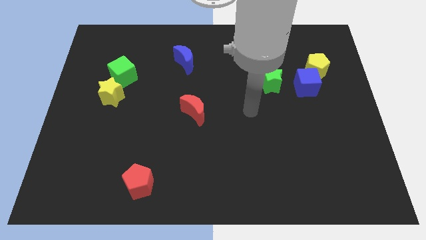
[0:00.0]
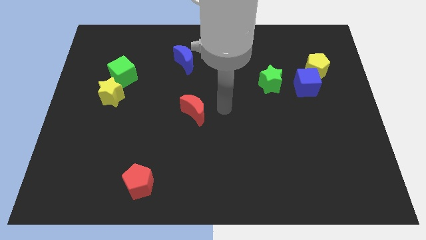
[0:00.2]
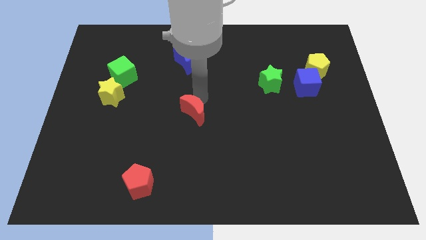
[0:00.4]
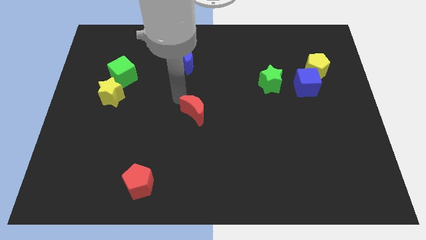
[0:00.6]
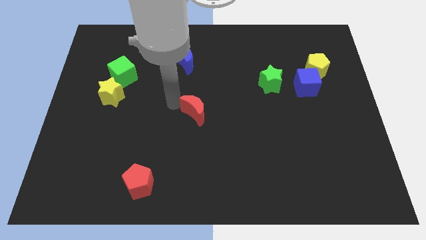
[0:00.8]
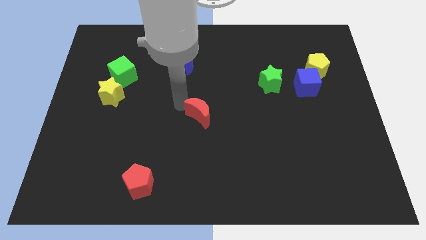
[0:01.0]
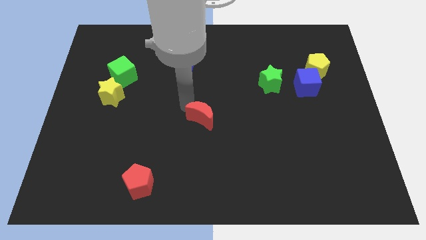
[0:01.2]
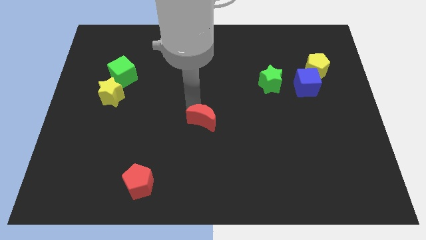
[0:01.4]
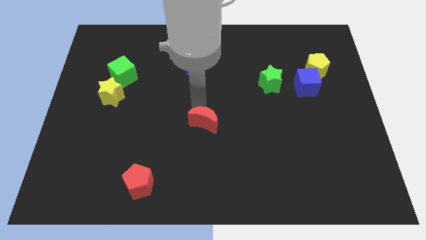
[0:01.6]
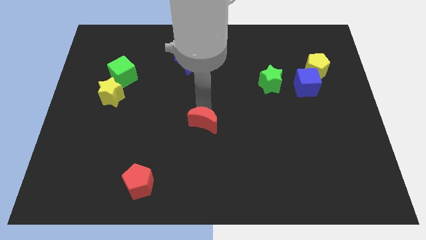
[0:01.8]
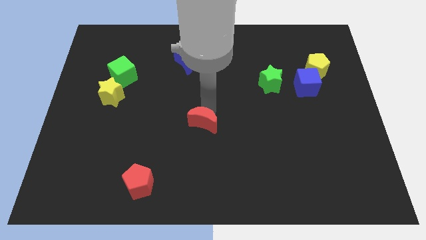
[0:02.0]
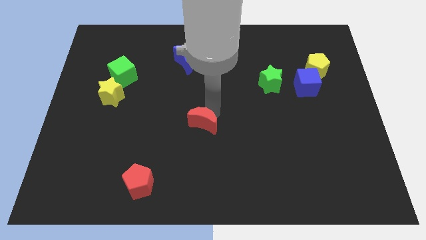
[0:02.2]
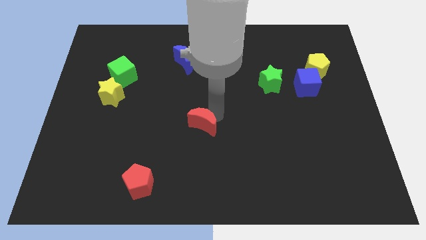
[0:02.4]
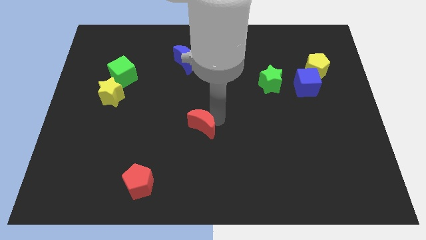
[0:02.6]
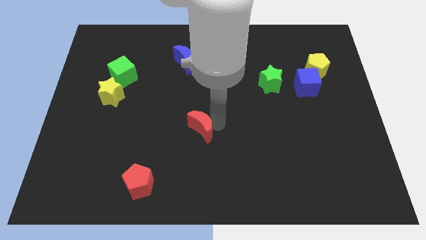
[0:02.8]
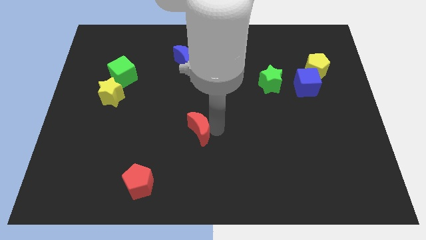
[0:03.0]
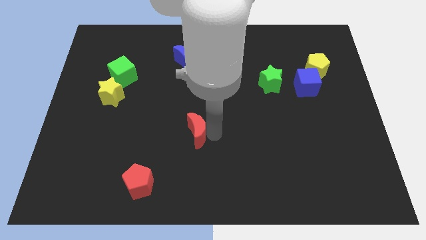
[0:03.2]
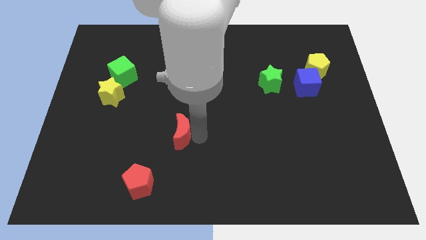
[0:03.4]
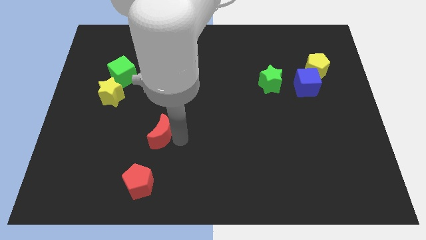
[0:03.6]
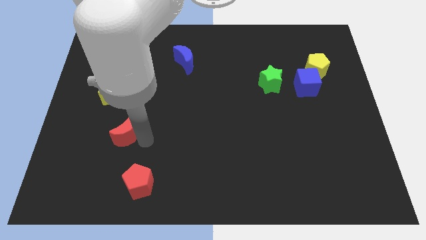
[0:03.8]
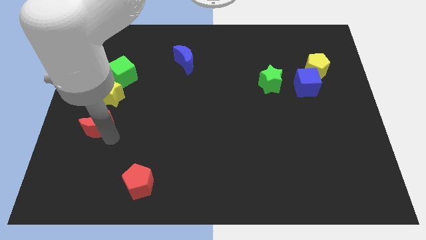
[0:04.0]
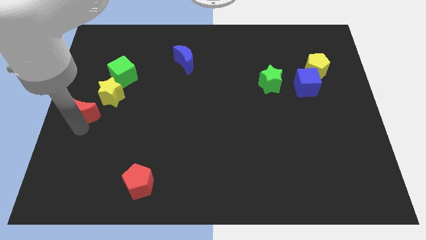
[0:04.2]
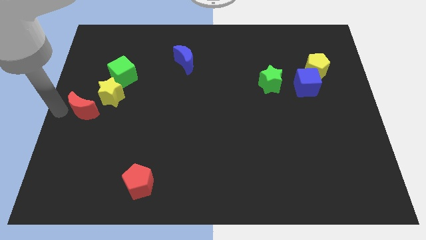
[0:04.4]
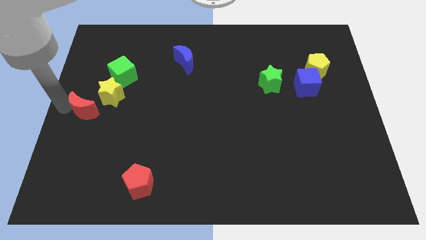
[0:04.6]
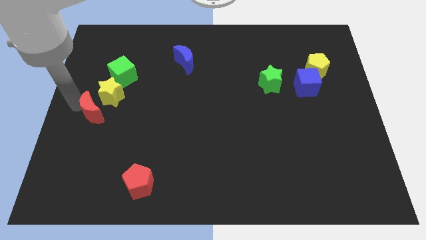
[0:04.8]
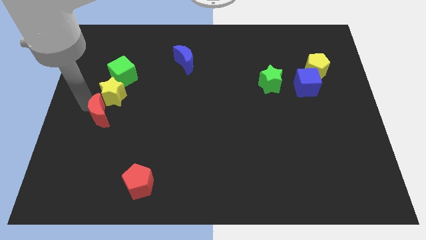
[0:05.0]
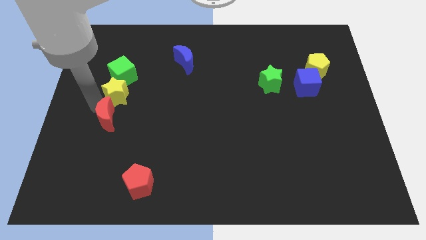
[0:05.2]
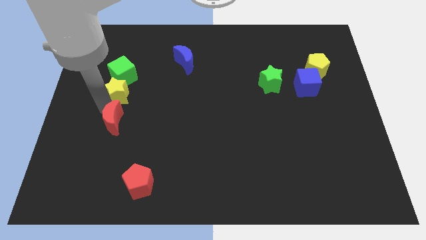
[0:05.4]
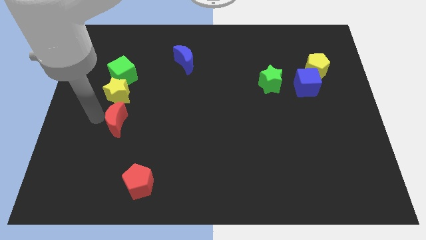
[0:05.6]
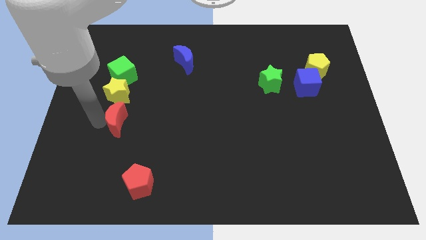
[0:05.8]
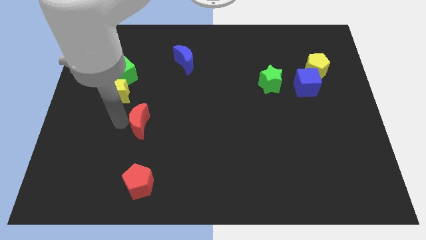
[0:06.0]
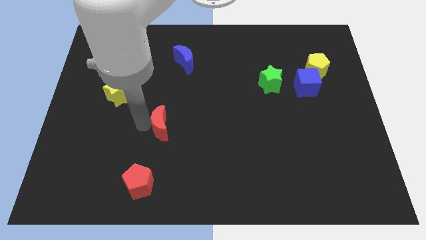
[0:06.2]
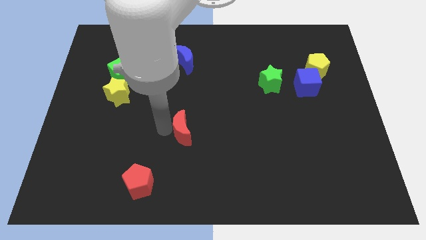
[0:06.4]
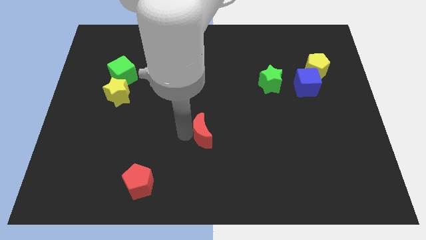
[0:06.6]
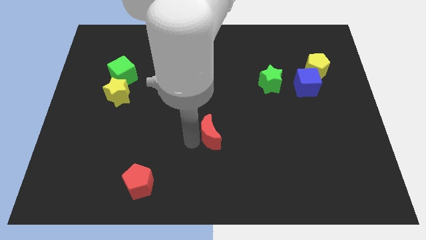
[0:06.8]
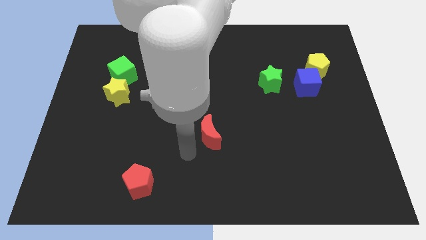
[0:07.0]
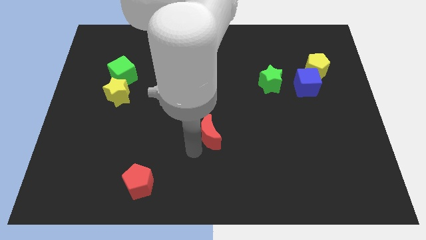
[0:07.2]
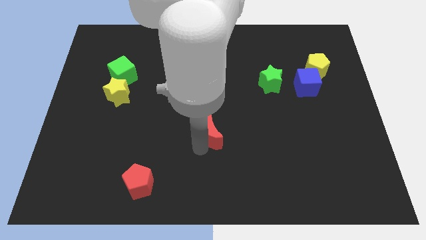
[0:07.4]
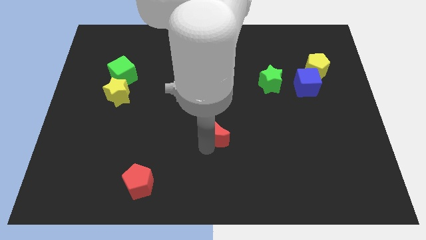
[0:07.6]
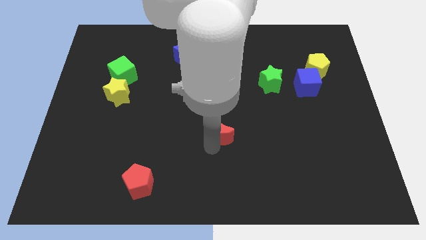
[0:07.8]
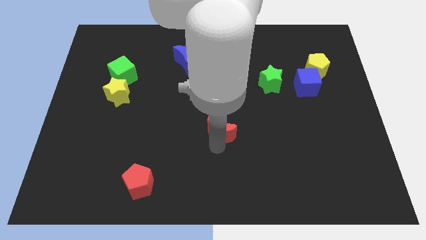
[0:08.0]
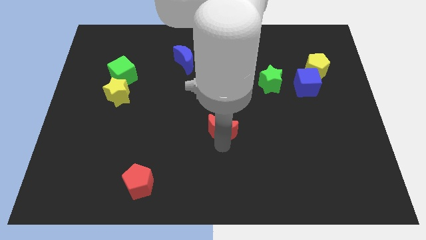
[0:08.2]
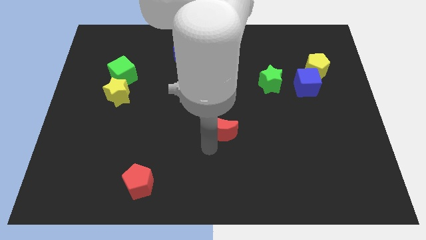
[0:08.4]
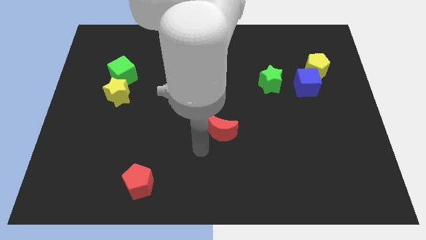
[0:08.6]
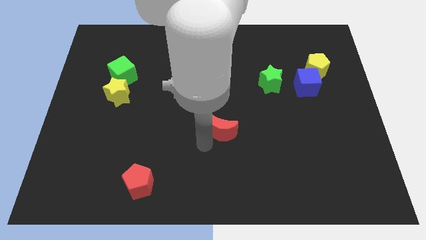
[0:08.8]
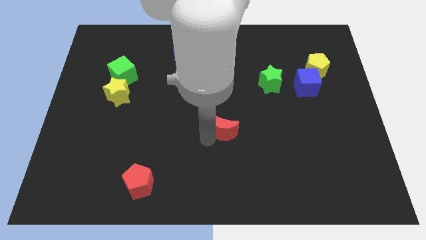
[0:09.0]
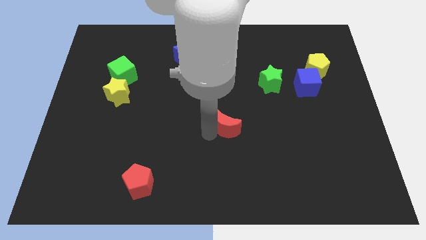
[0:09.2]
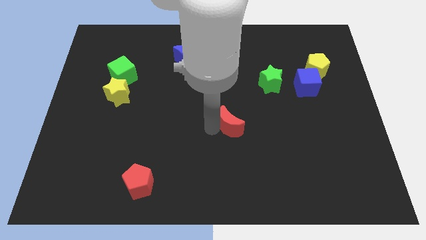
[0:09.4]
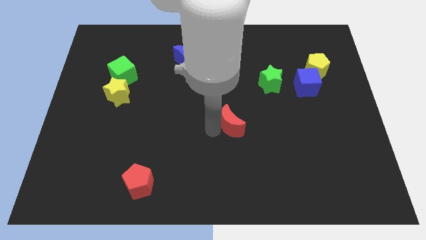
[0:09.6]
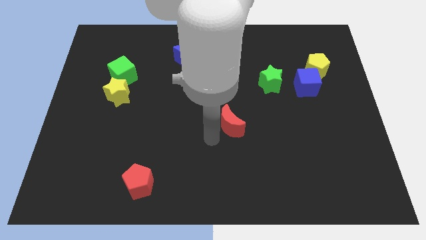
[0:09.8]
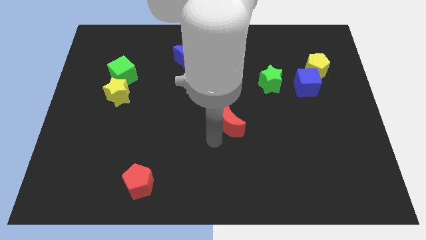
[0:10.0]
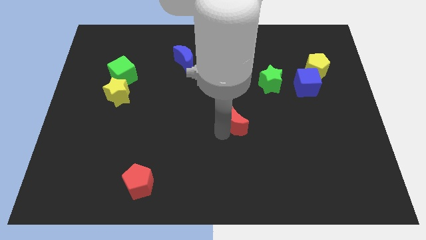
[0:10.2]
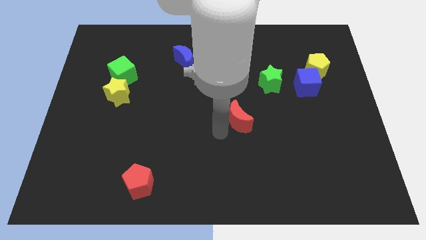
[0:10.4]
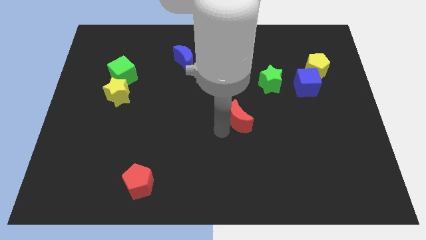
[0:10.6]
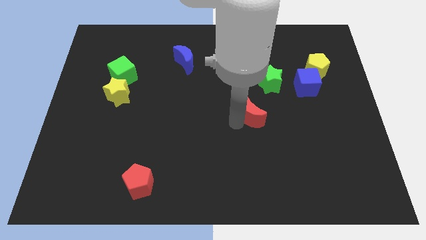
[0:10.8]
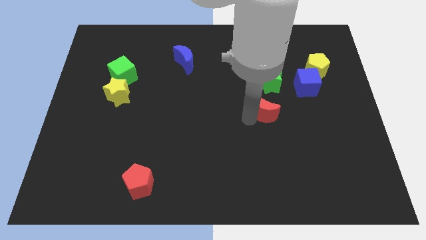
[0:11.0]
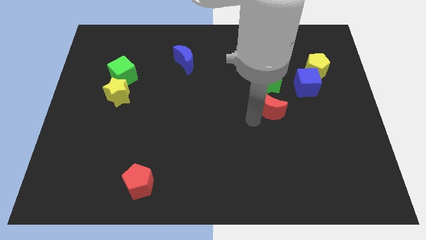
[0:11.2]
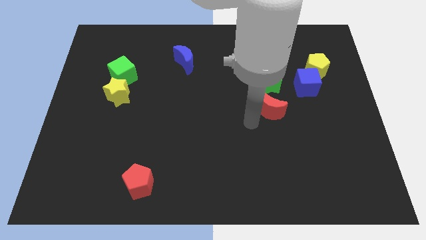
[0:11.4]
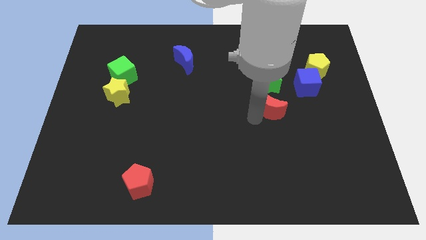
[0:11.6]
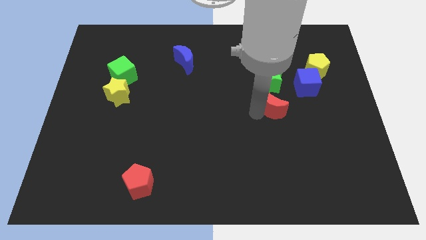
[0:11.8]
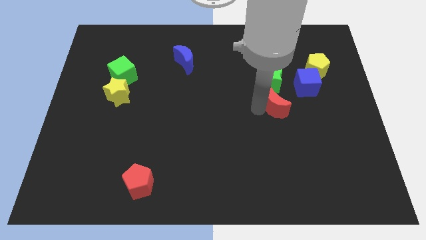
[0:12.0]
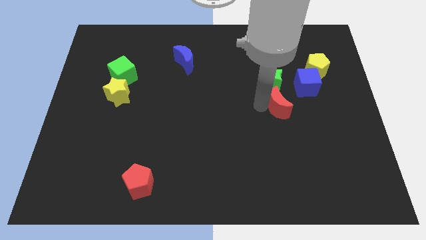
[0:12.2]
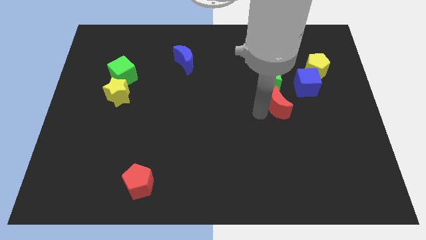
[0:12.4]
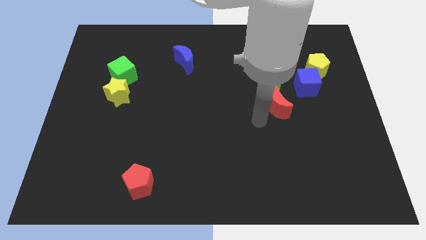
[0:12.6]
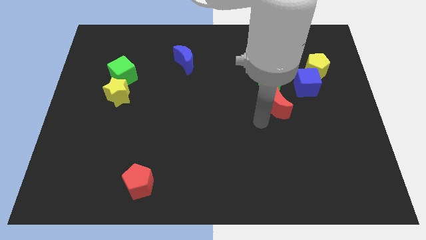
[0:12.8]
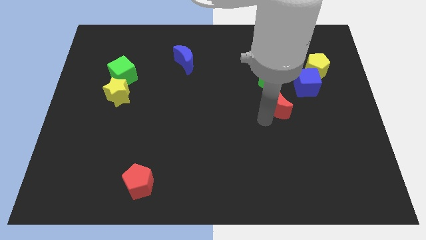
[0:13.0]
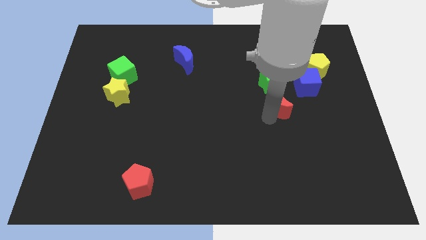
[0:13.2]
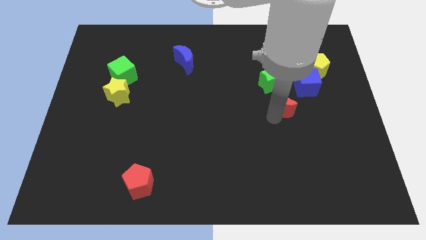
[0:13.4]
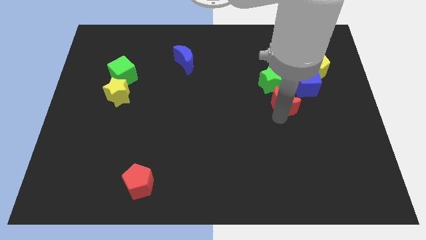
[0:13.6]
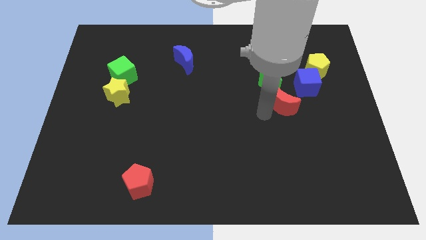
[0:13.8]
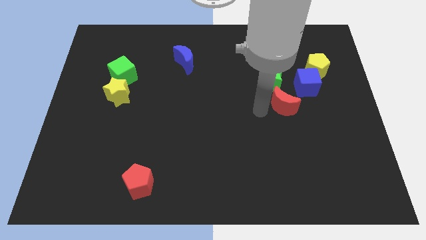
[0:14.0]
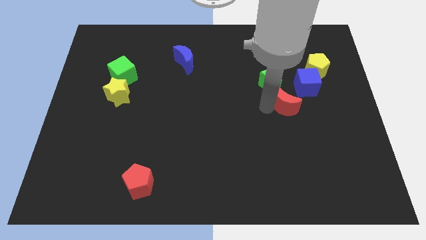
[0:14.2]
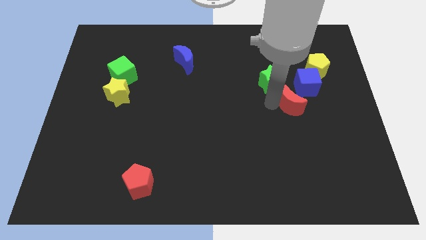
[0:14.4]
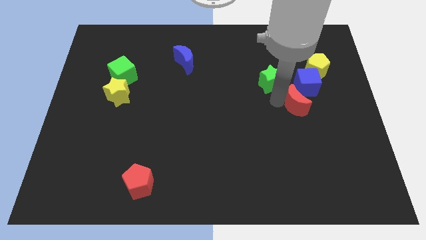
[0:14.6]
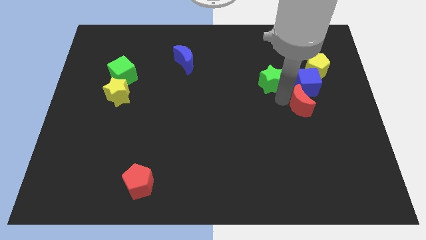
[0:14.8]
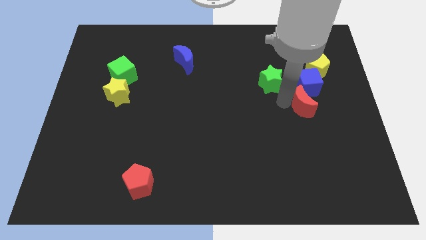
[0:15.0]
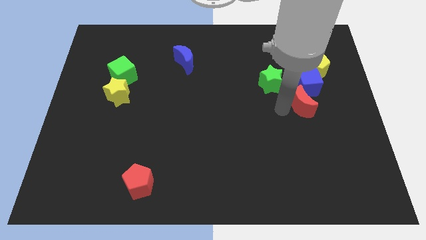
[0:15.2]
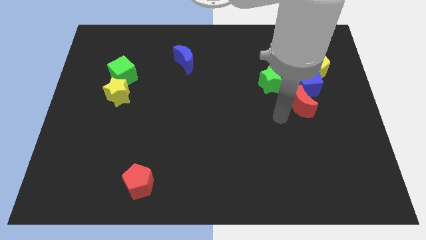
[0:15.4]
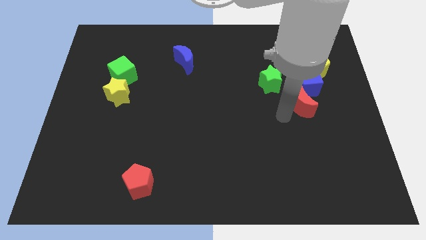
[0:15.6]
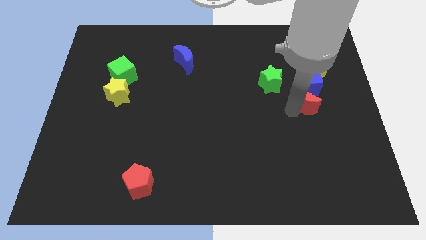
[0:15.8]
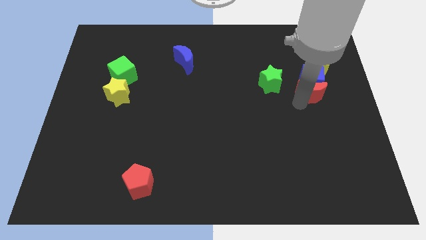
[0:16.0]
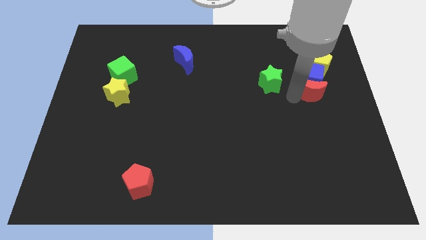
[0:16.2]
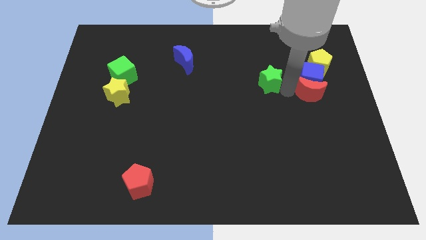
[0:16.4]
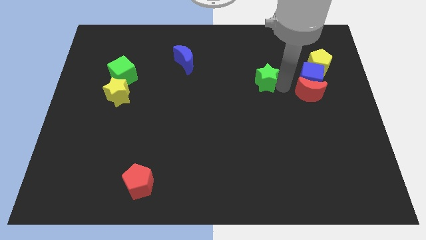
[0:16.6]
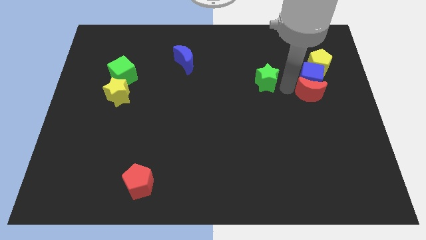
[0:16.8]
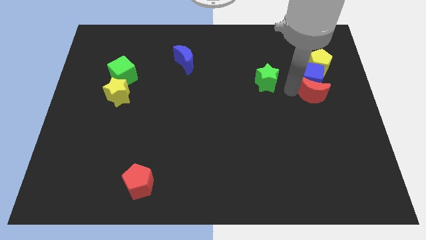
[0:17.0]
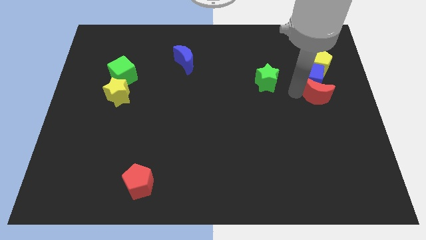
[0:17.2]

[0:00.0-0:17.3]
push the red moon to the center right
